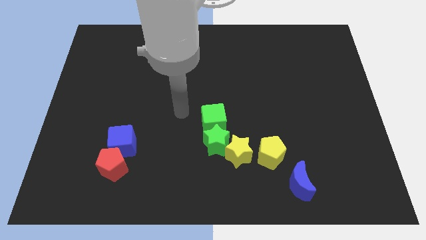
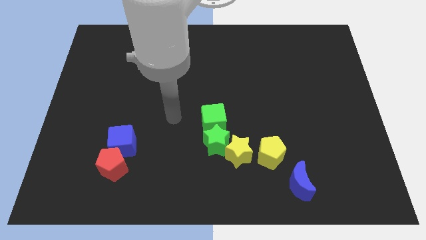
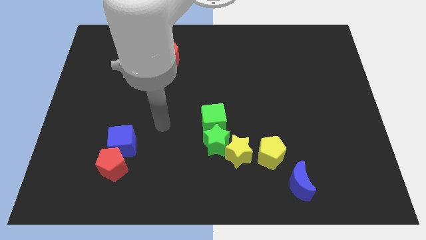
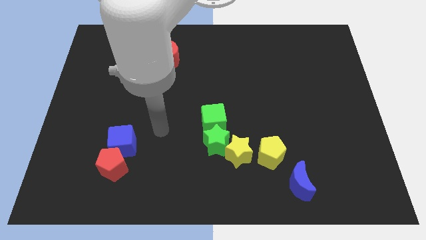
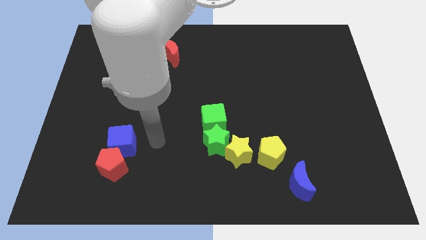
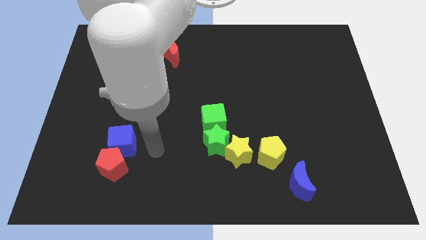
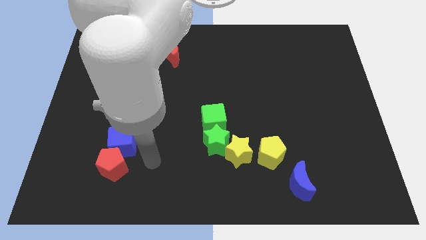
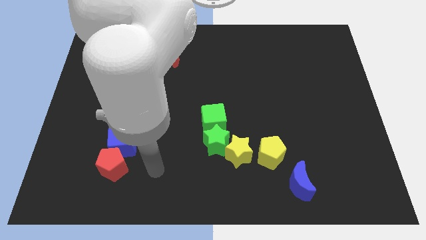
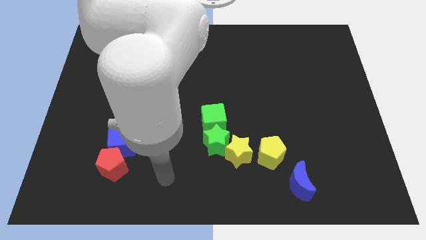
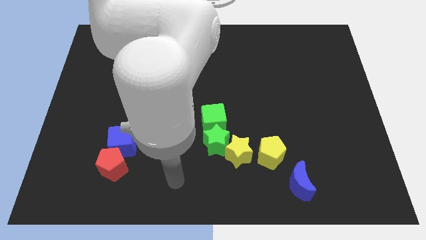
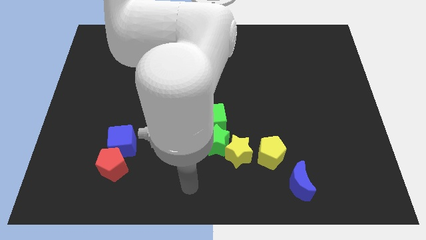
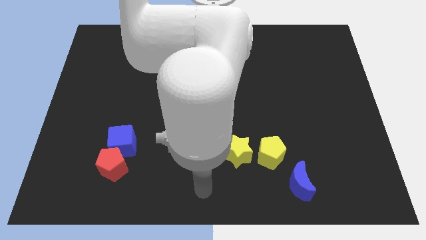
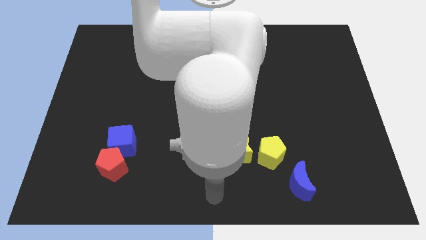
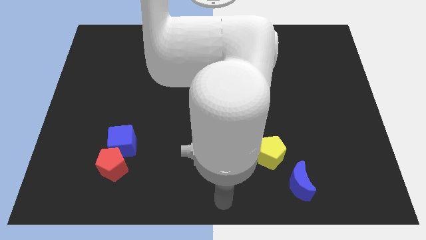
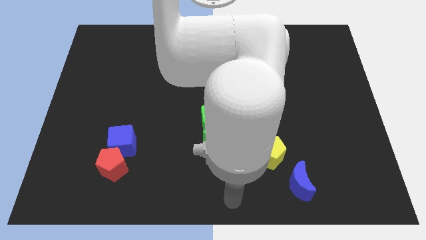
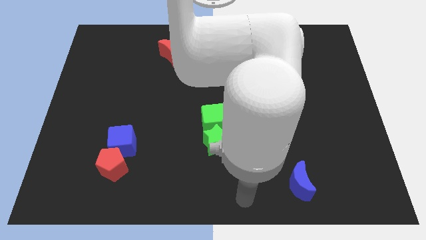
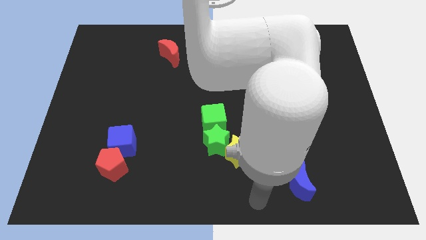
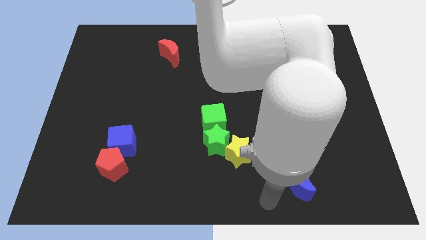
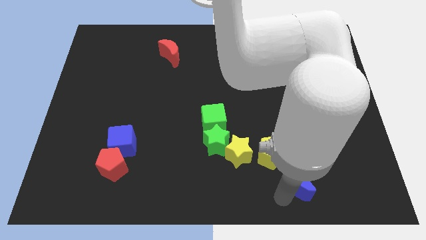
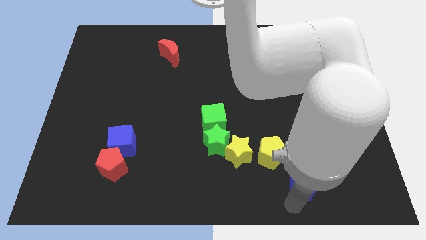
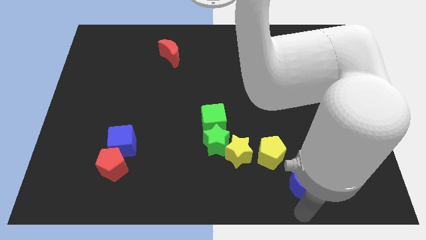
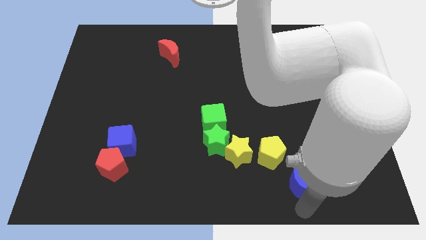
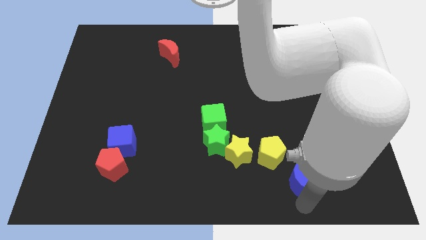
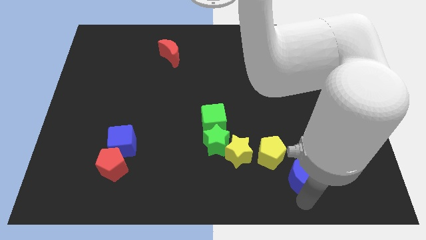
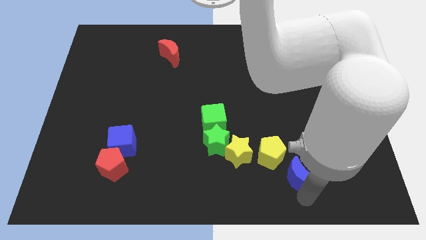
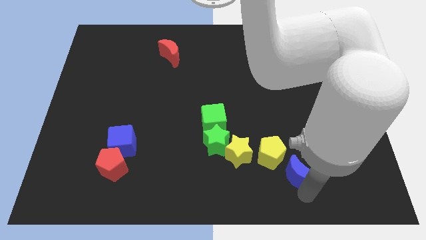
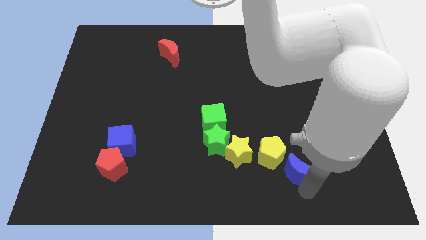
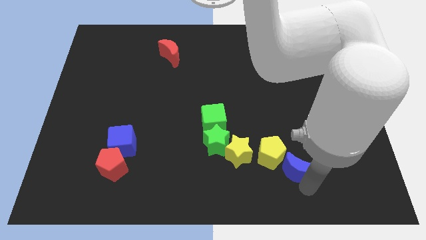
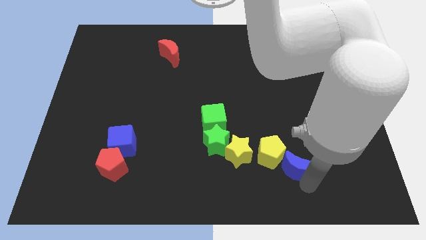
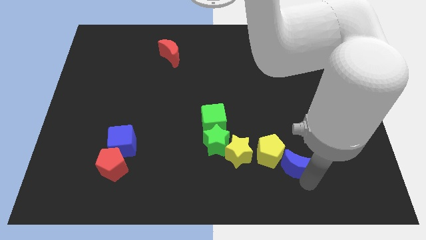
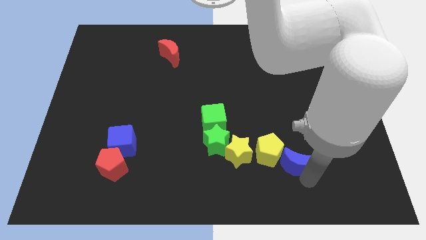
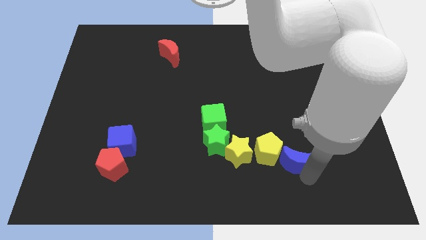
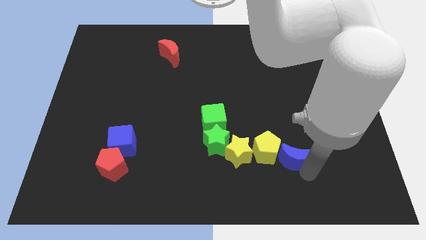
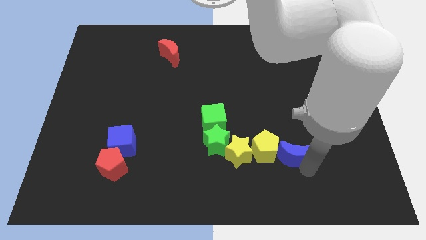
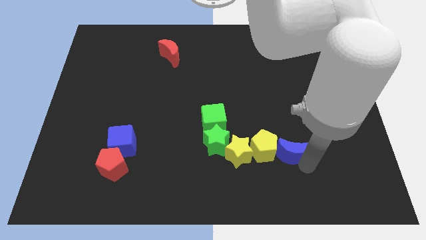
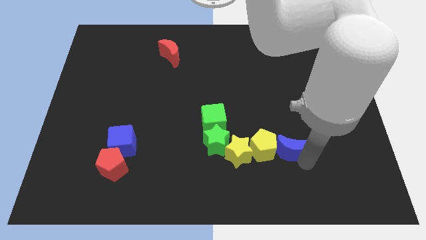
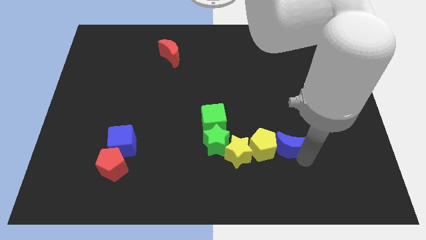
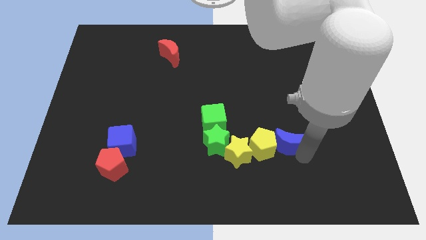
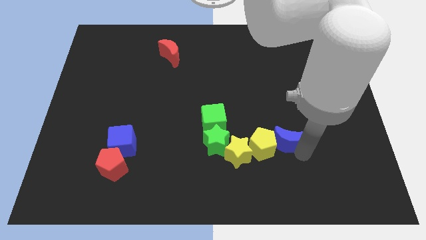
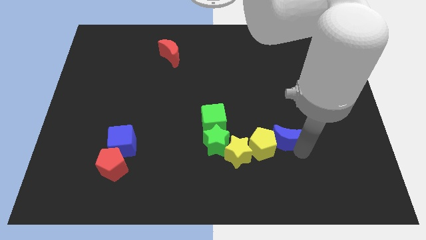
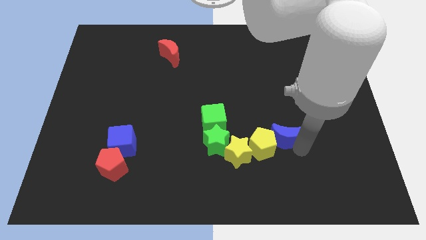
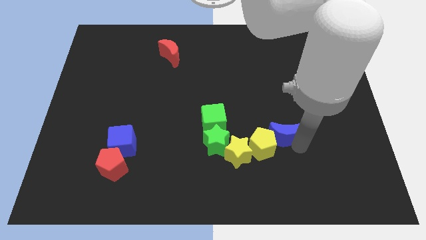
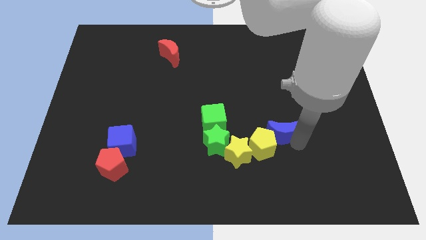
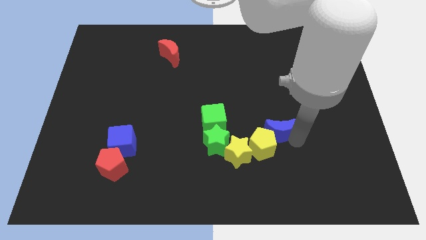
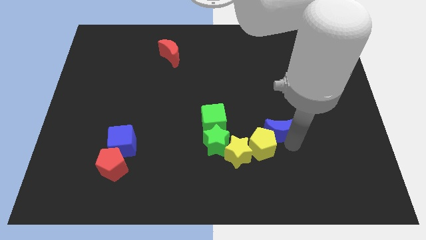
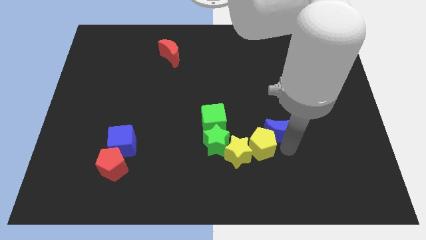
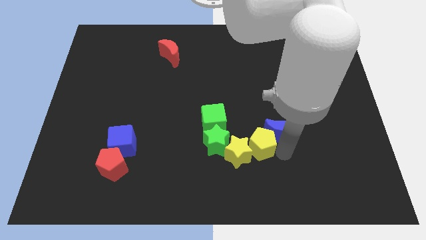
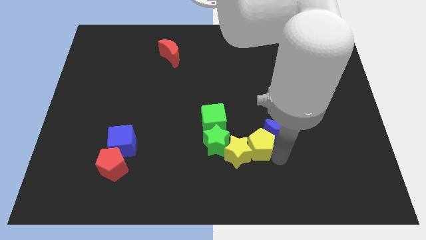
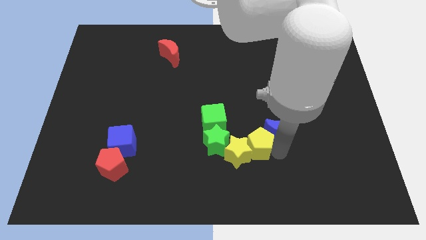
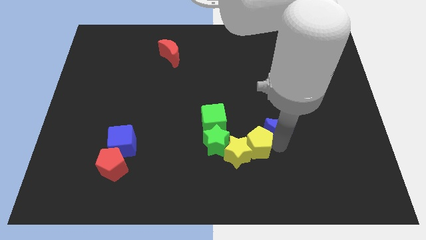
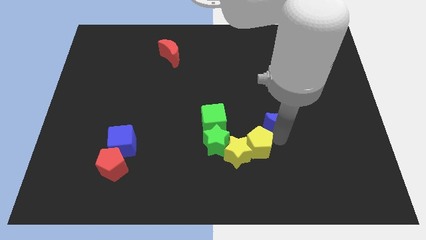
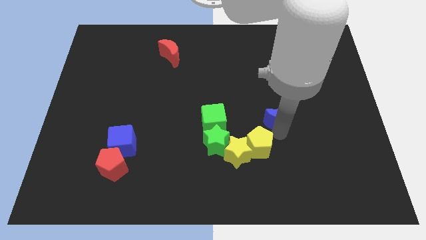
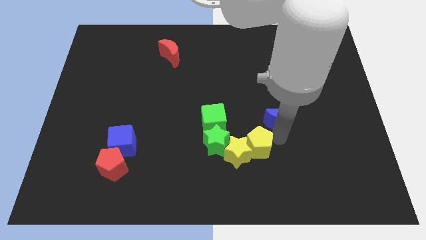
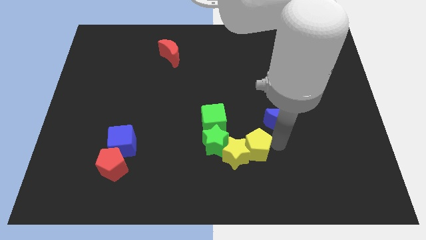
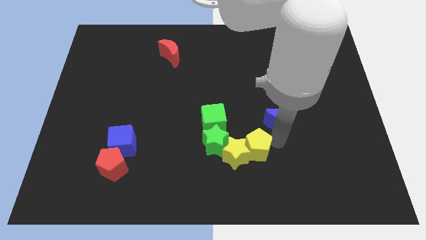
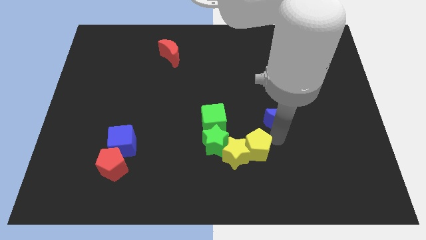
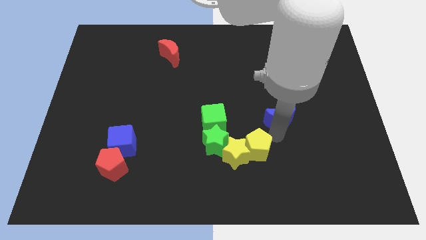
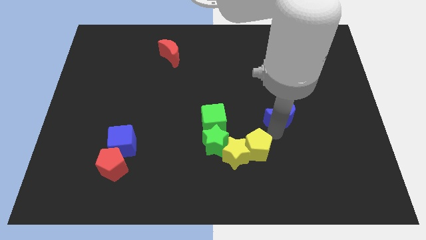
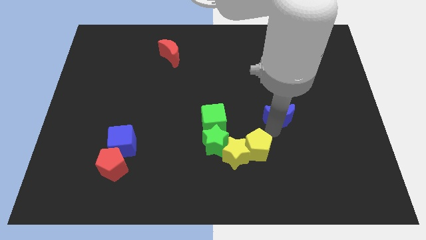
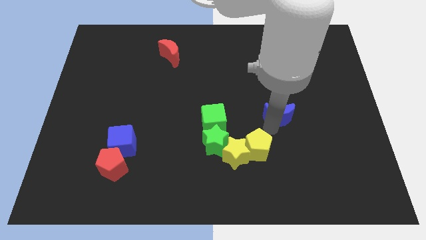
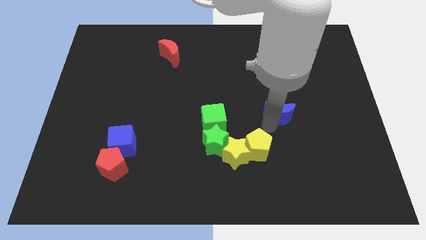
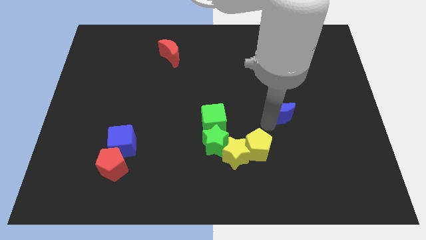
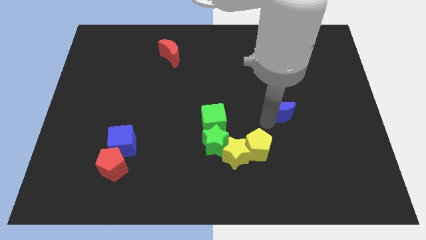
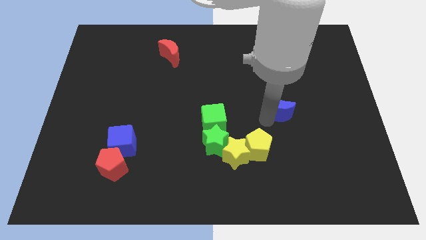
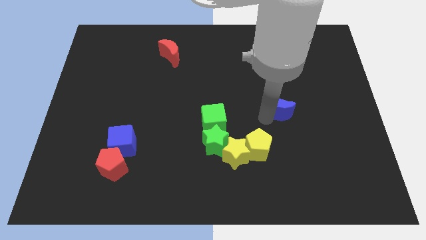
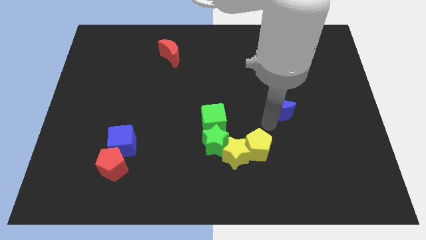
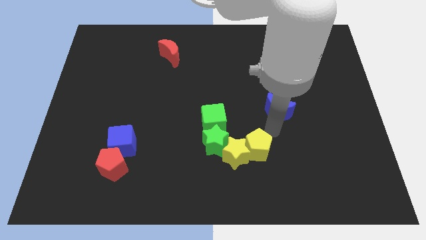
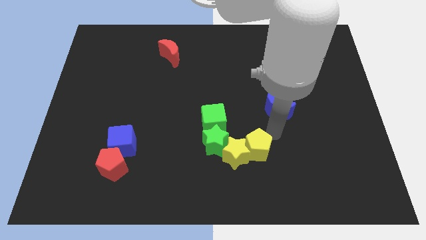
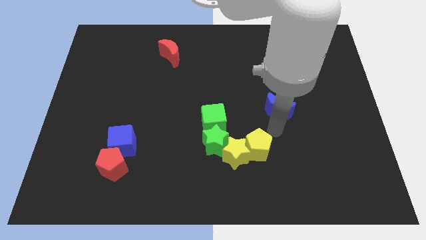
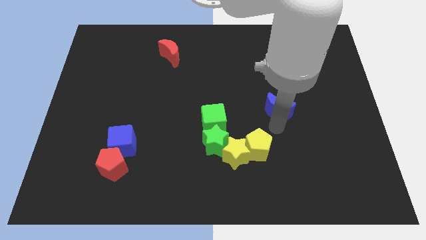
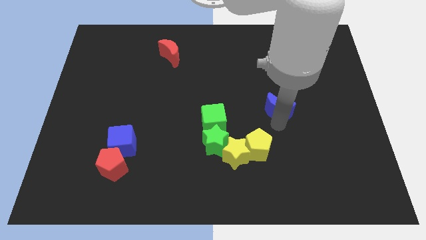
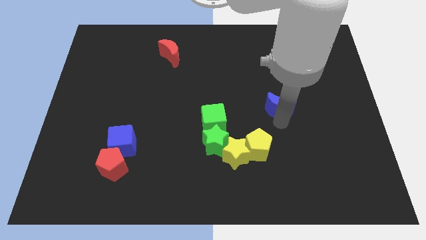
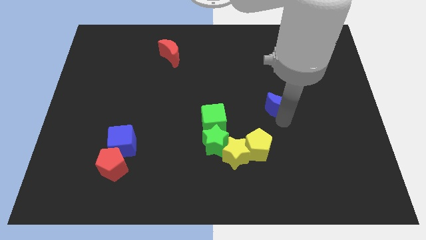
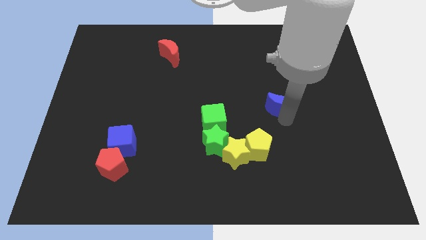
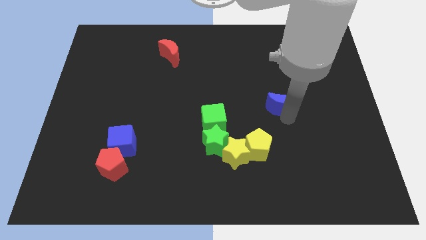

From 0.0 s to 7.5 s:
move the blue moon upwards

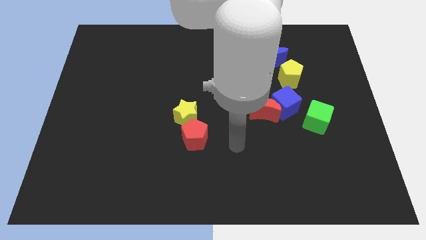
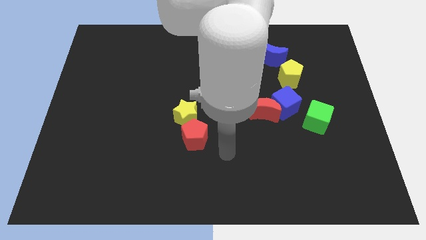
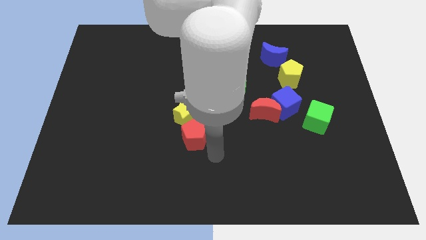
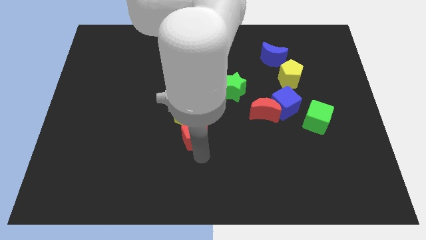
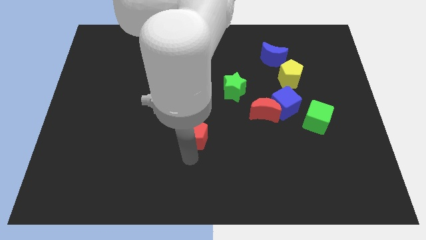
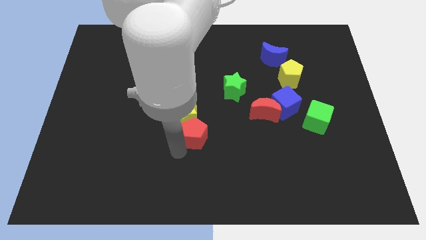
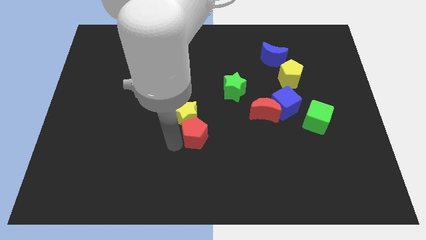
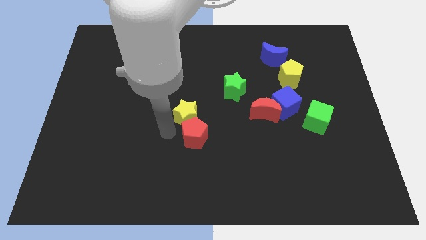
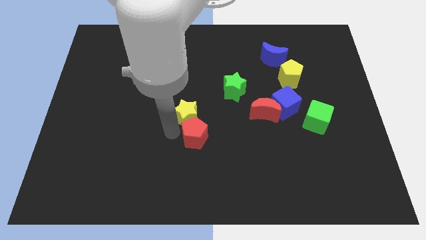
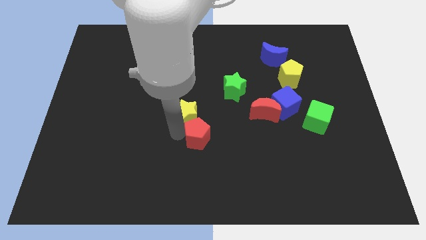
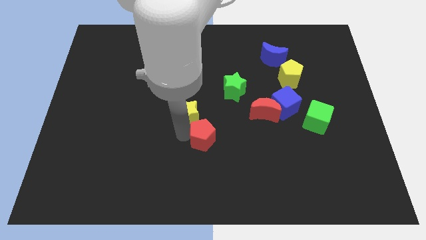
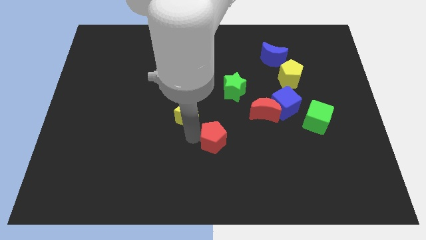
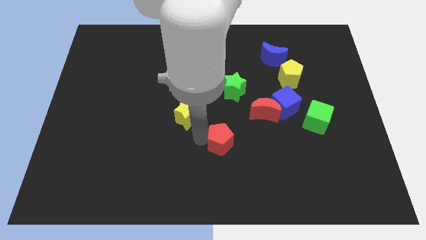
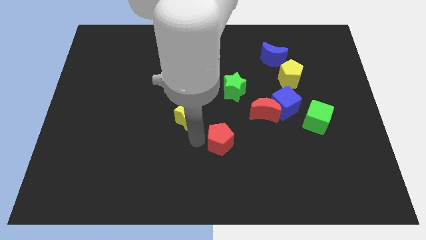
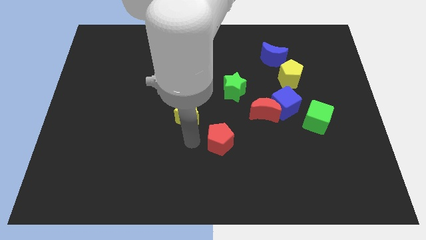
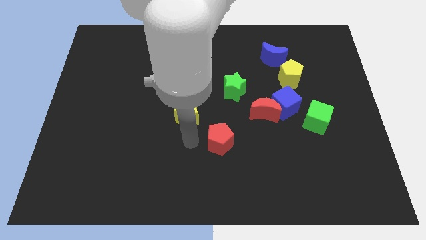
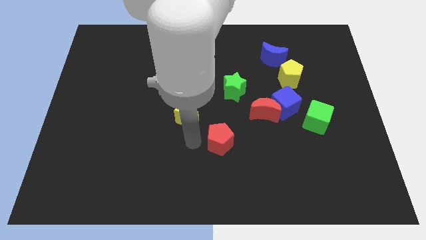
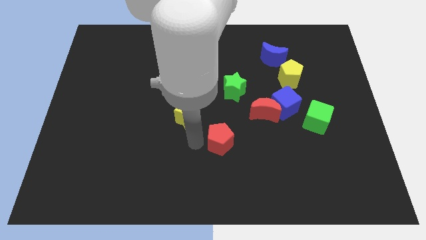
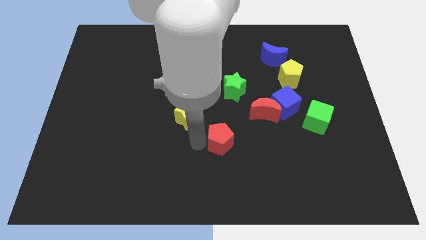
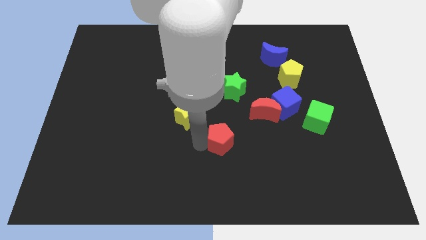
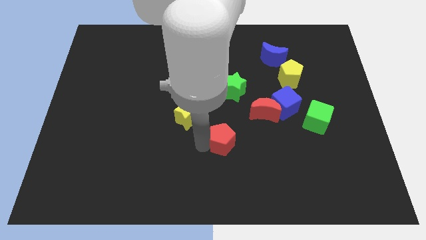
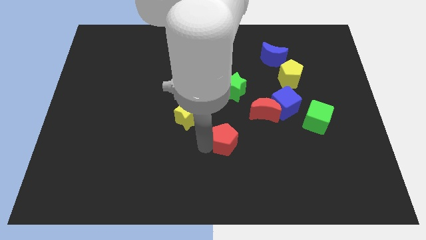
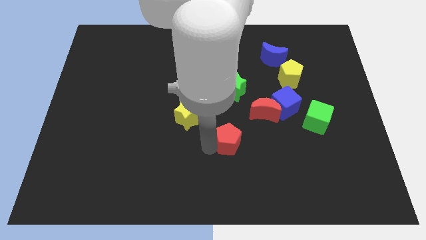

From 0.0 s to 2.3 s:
push the red pentagon to the right a little bit
